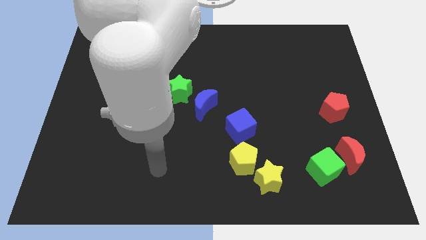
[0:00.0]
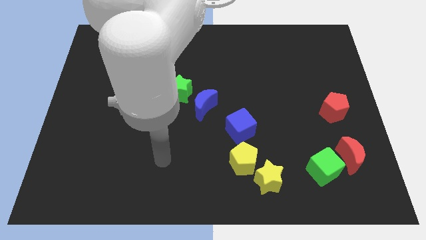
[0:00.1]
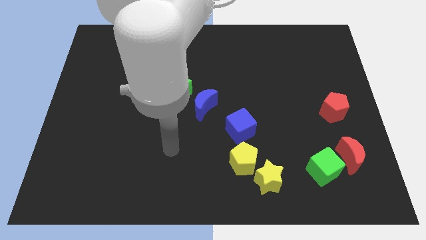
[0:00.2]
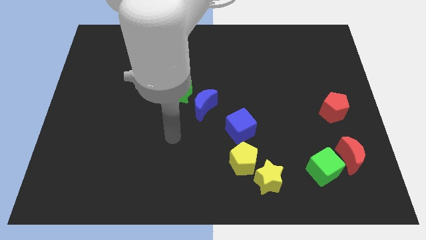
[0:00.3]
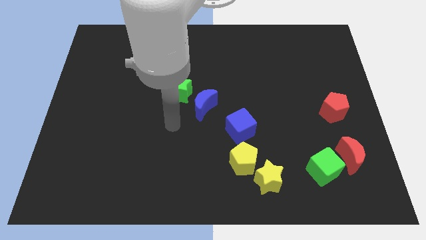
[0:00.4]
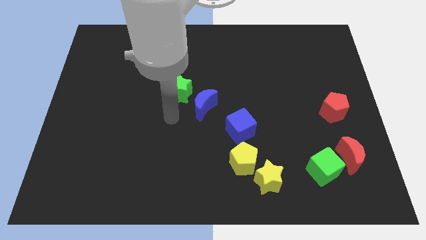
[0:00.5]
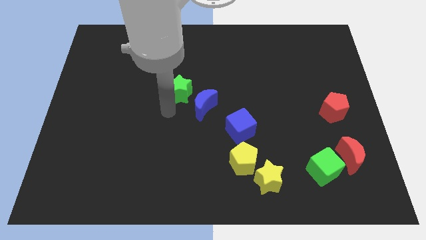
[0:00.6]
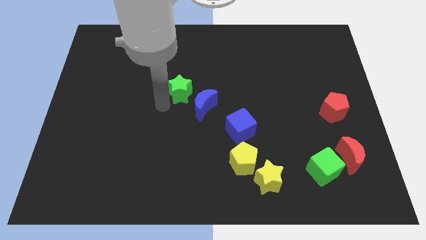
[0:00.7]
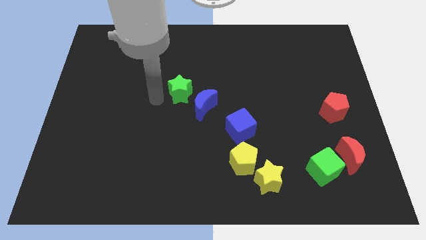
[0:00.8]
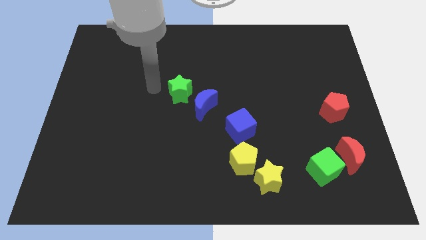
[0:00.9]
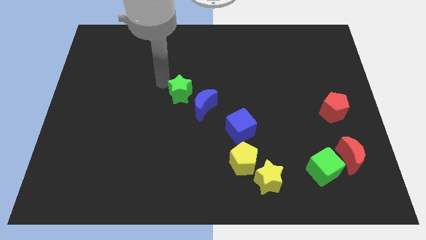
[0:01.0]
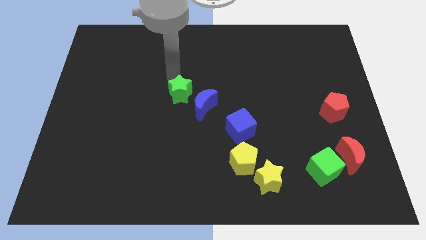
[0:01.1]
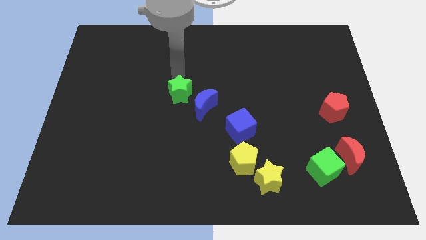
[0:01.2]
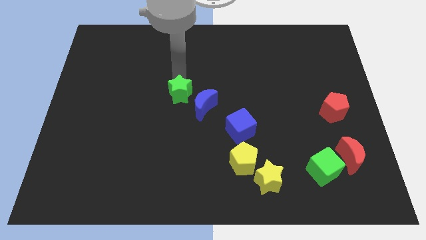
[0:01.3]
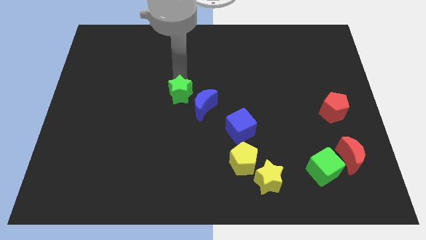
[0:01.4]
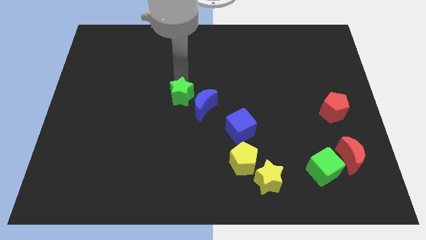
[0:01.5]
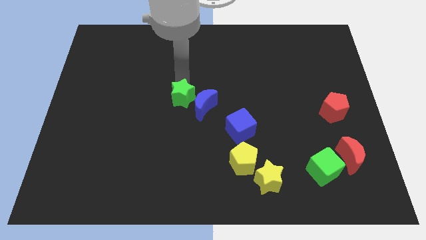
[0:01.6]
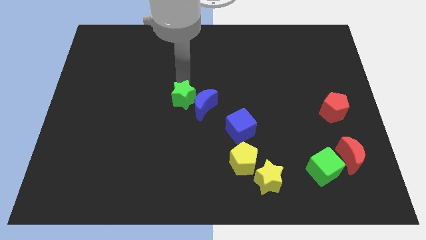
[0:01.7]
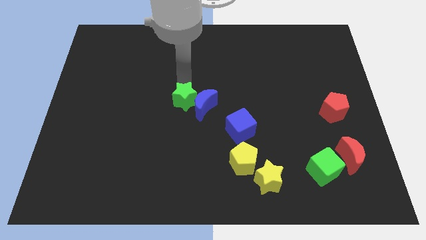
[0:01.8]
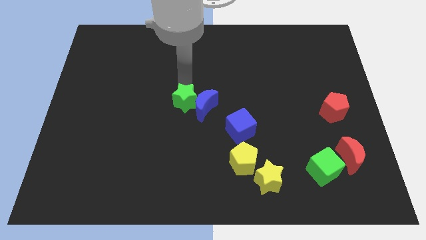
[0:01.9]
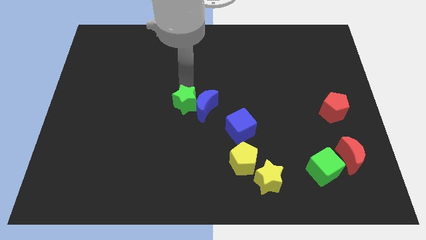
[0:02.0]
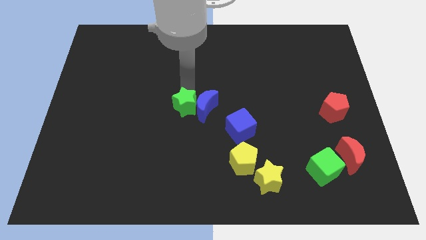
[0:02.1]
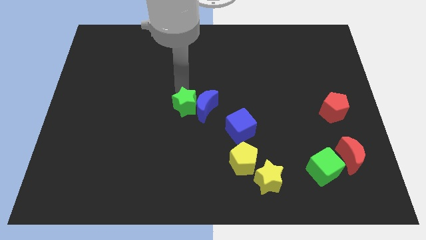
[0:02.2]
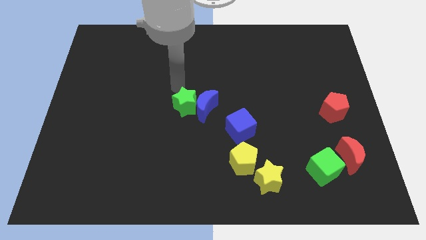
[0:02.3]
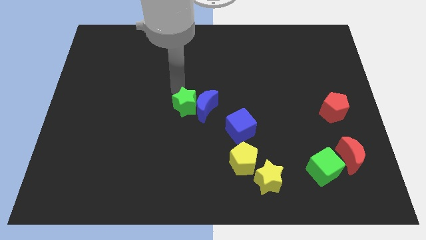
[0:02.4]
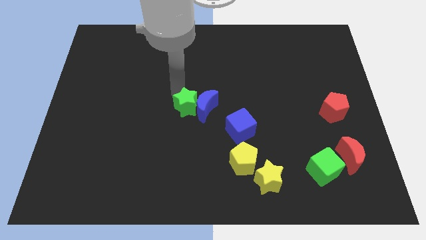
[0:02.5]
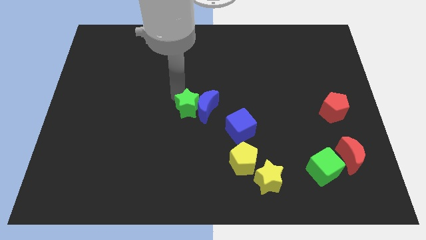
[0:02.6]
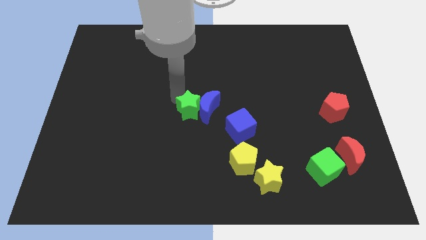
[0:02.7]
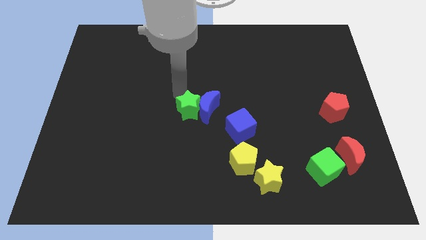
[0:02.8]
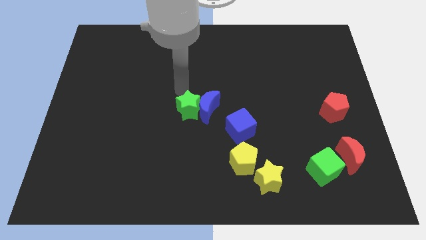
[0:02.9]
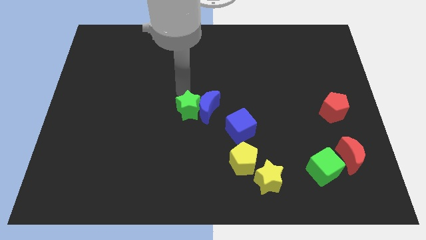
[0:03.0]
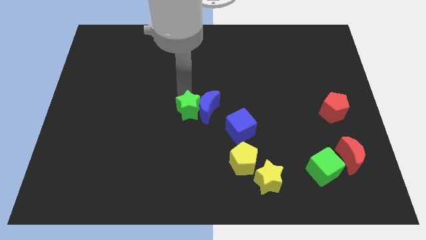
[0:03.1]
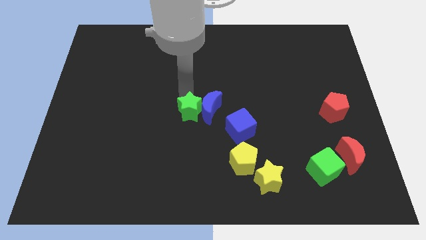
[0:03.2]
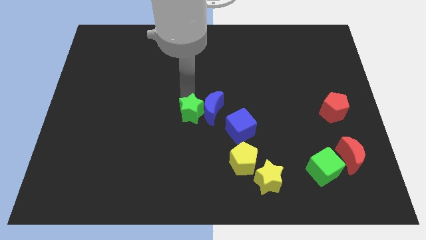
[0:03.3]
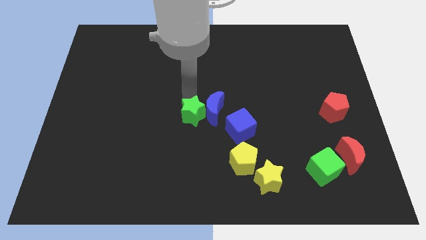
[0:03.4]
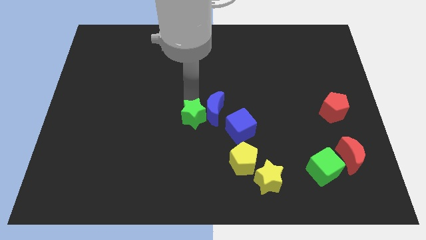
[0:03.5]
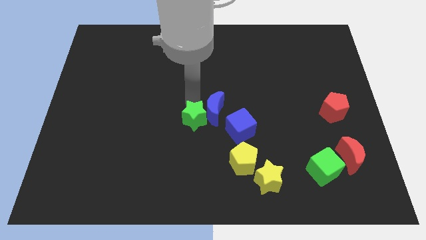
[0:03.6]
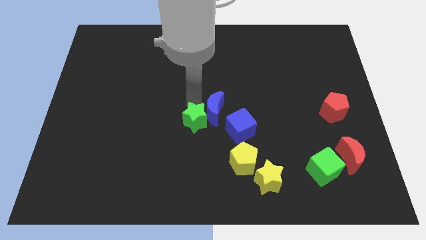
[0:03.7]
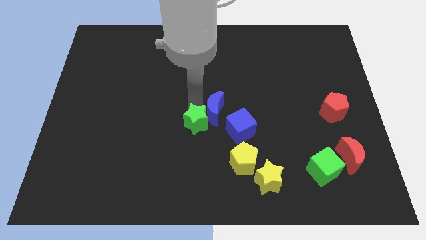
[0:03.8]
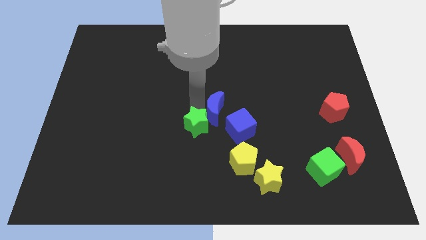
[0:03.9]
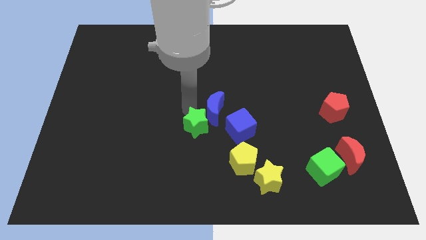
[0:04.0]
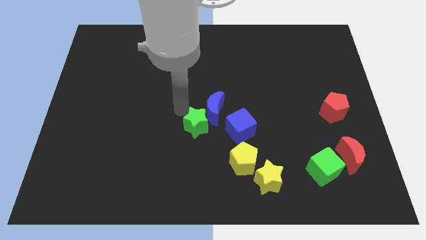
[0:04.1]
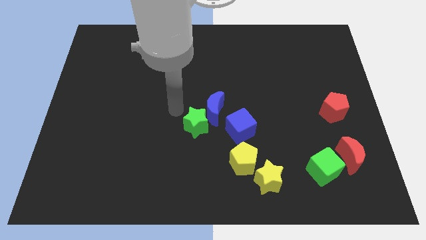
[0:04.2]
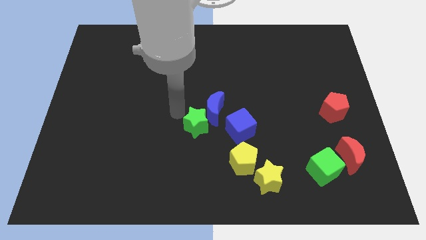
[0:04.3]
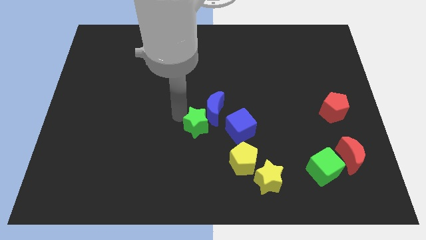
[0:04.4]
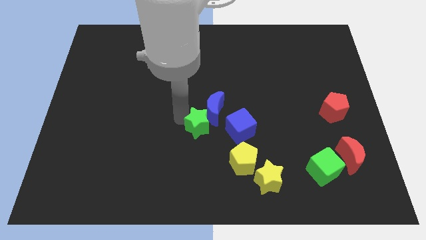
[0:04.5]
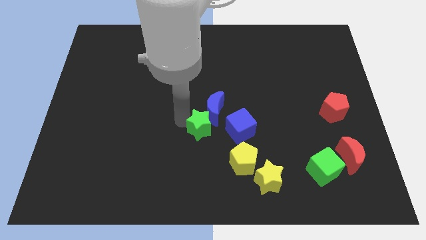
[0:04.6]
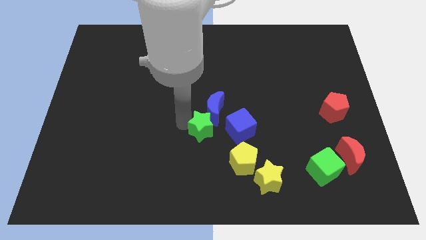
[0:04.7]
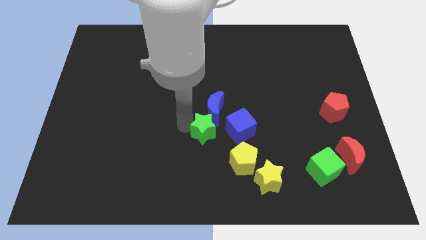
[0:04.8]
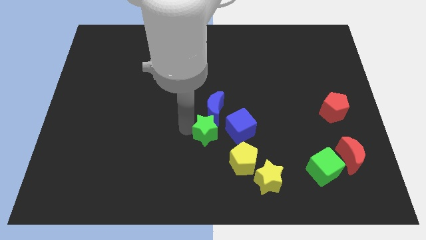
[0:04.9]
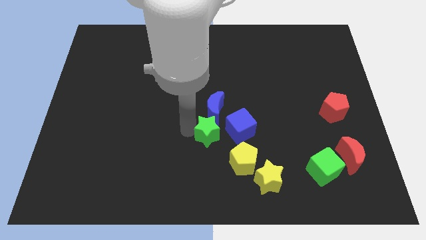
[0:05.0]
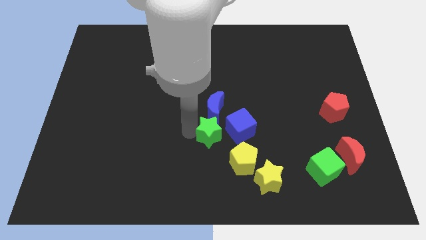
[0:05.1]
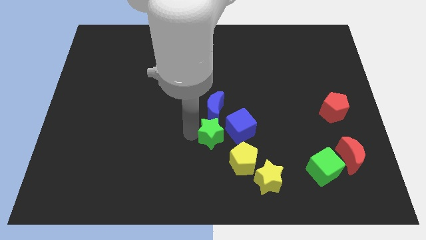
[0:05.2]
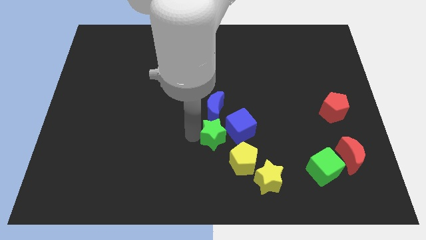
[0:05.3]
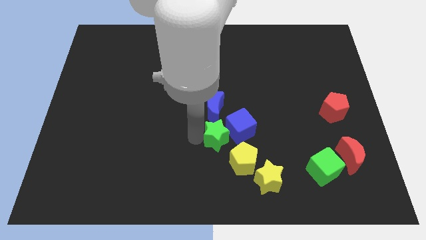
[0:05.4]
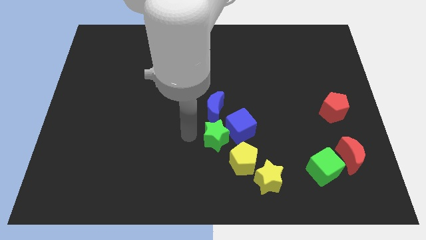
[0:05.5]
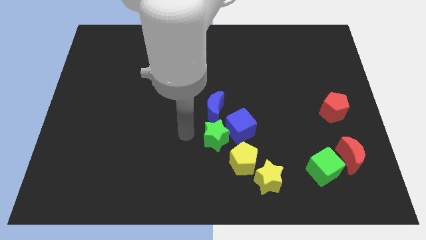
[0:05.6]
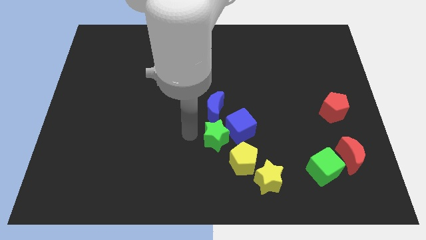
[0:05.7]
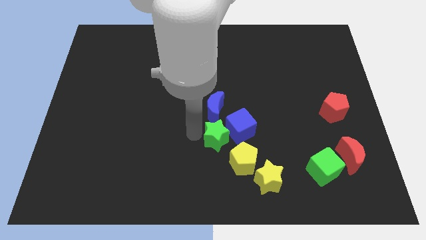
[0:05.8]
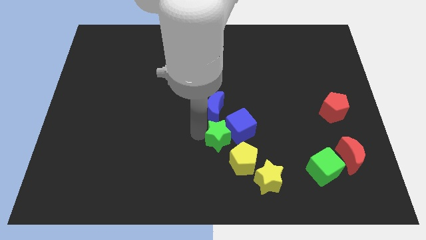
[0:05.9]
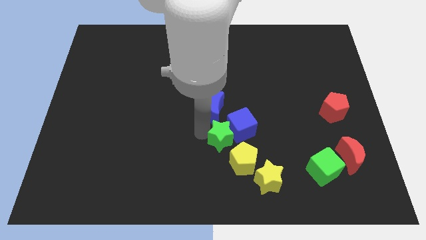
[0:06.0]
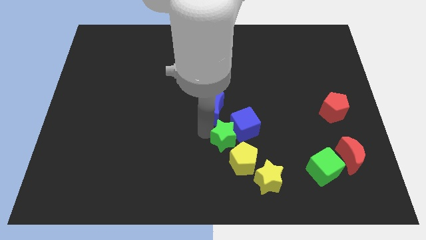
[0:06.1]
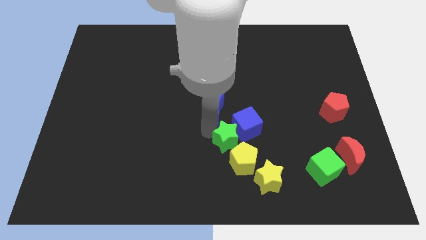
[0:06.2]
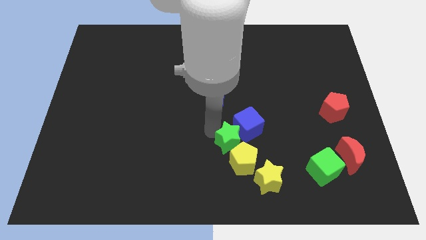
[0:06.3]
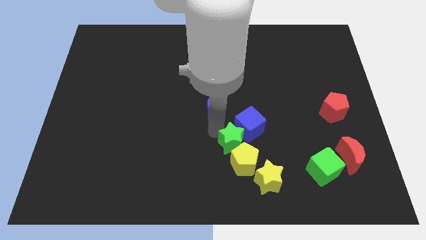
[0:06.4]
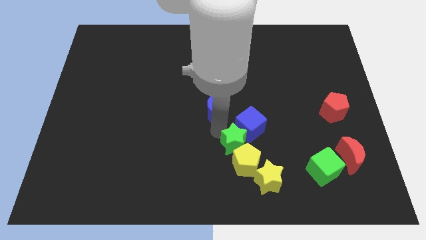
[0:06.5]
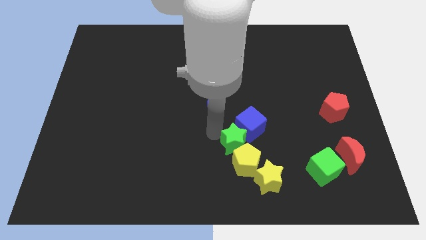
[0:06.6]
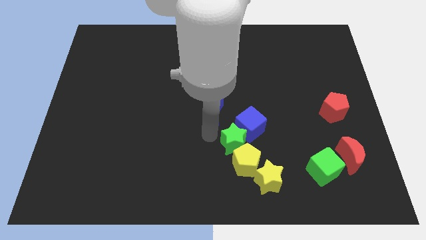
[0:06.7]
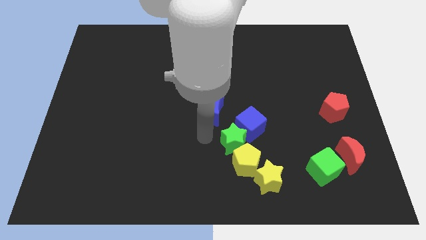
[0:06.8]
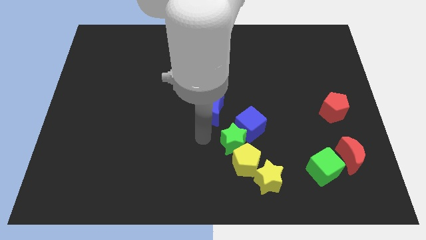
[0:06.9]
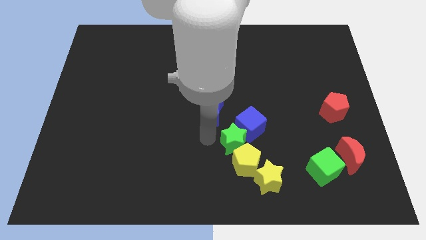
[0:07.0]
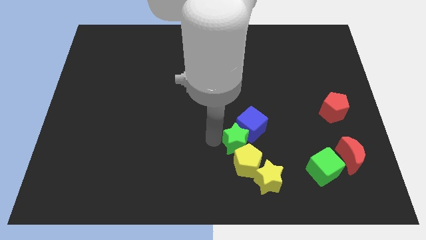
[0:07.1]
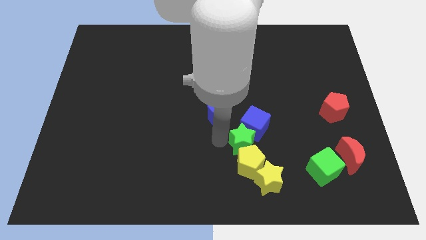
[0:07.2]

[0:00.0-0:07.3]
slide the green star diagonally down and right

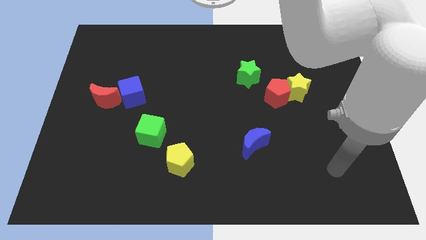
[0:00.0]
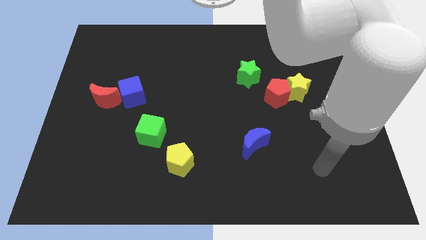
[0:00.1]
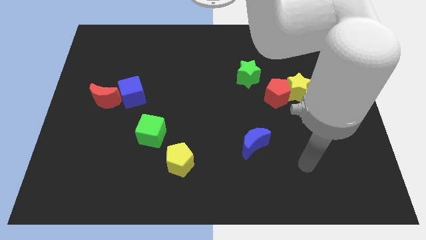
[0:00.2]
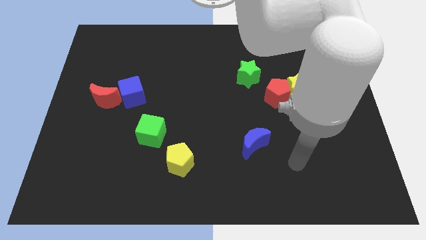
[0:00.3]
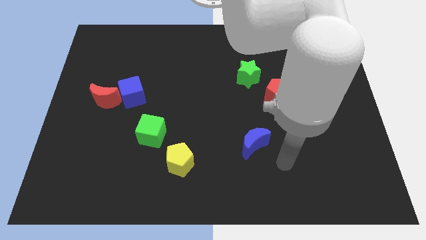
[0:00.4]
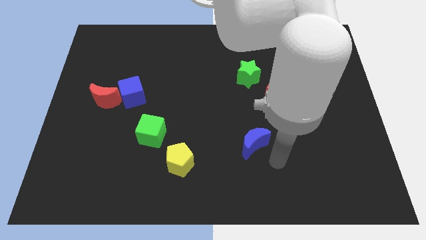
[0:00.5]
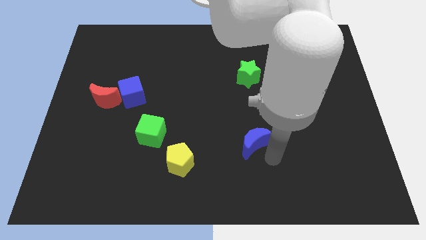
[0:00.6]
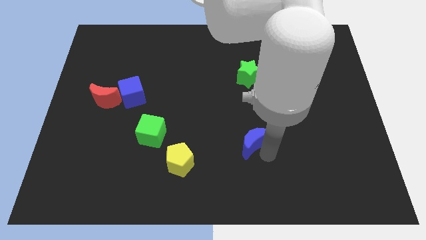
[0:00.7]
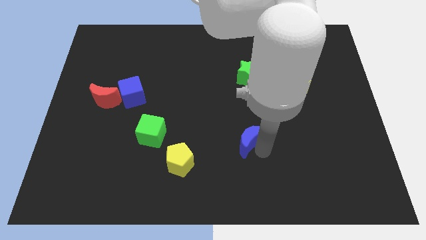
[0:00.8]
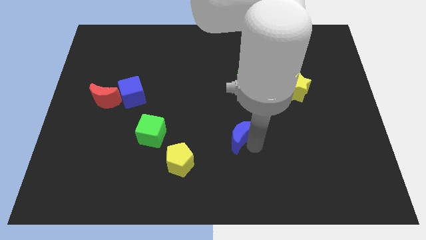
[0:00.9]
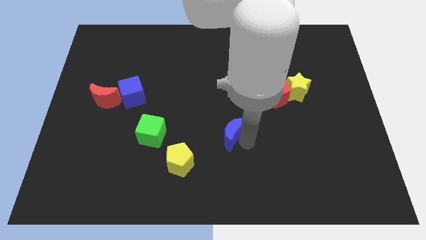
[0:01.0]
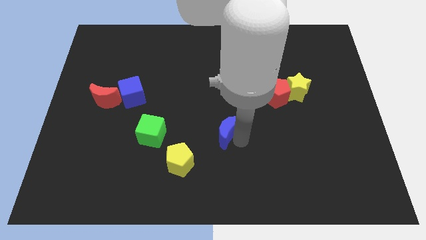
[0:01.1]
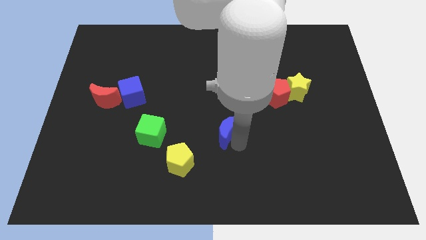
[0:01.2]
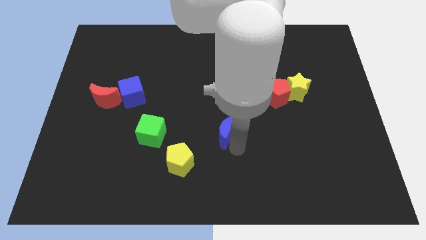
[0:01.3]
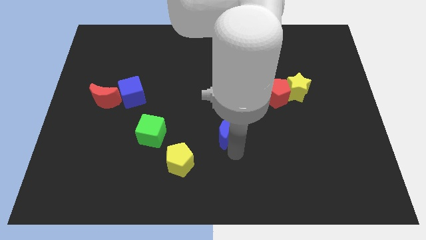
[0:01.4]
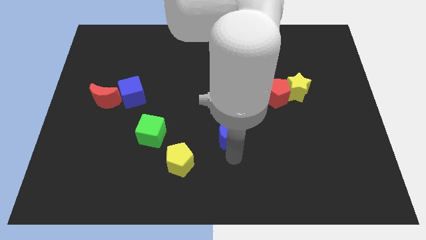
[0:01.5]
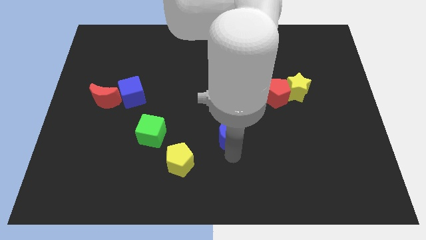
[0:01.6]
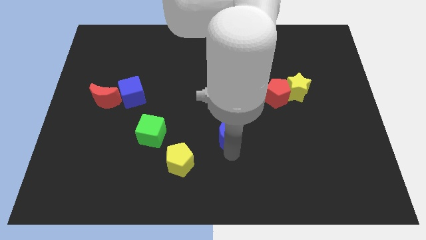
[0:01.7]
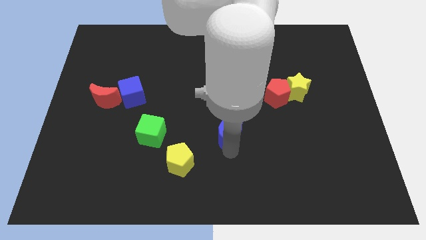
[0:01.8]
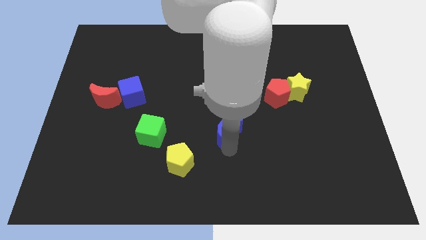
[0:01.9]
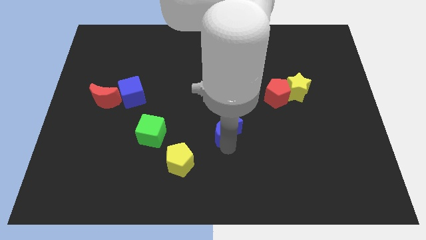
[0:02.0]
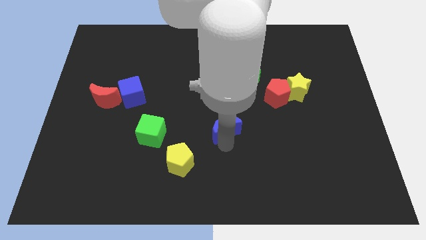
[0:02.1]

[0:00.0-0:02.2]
slightly slide the blue moon upwards and to the left diagonally
